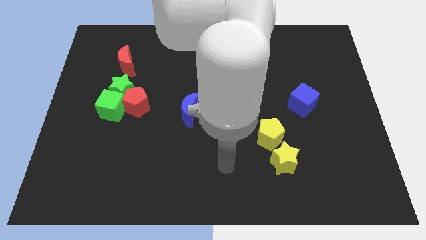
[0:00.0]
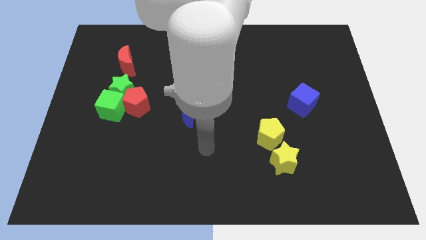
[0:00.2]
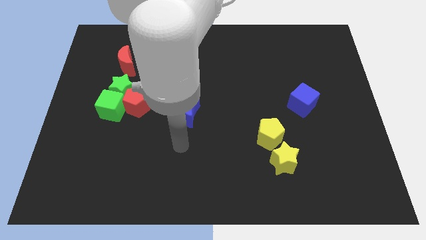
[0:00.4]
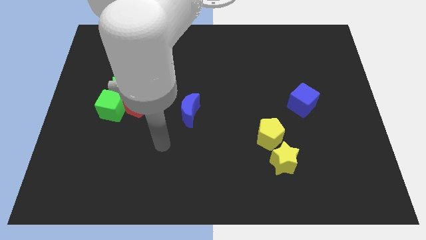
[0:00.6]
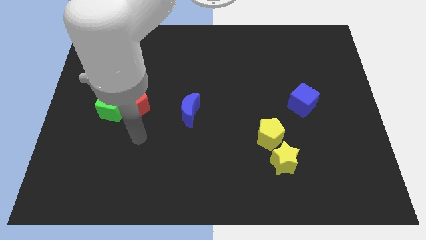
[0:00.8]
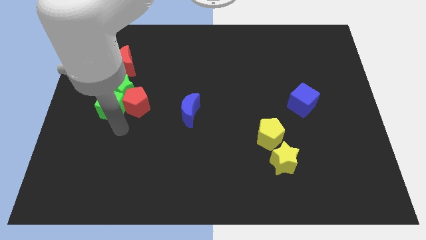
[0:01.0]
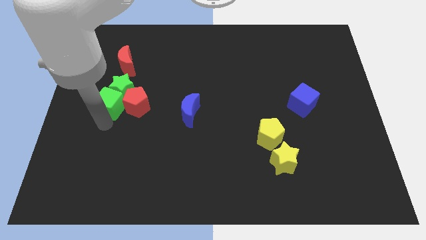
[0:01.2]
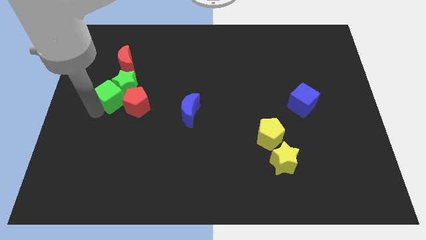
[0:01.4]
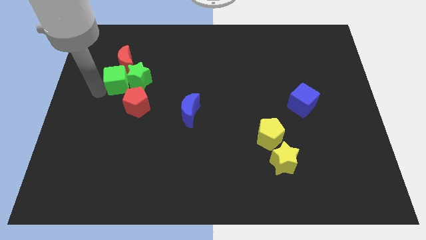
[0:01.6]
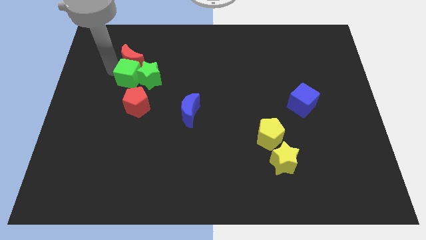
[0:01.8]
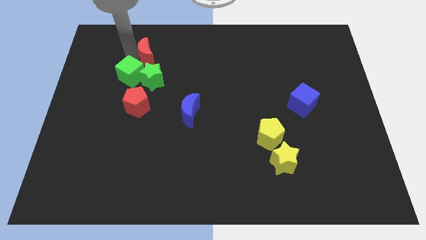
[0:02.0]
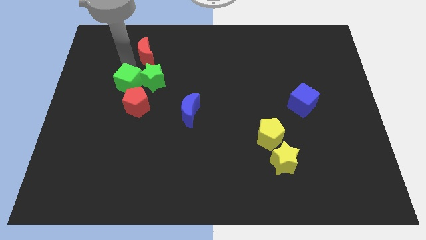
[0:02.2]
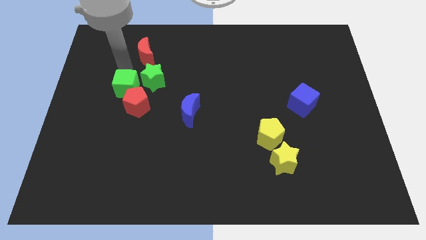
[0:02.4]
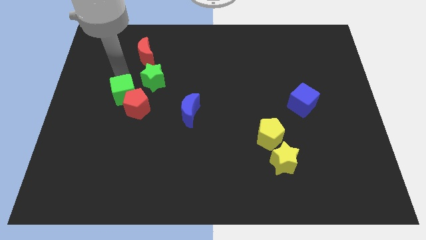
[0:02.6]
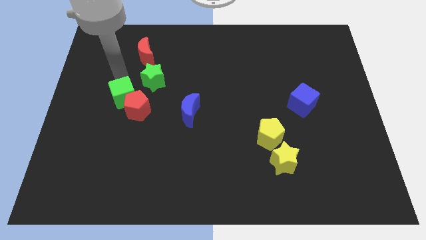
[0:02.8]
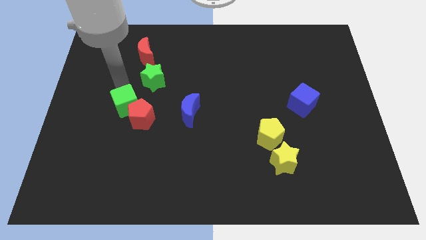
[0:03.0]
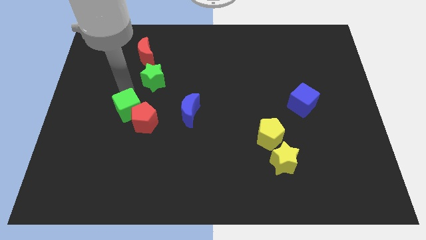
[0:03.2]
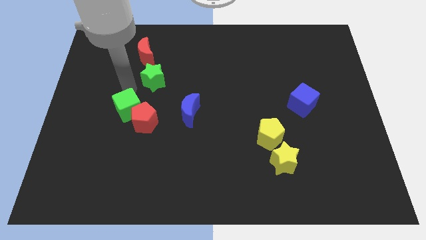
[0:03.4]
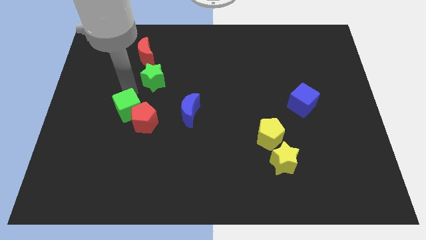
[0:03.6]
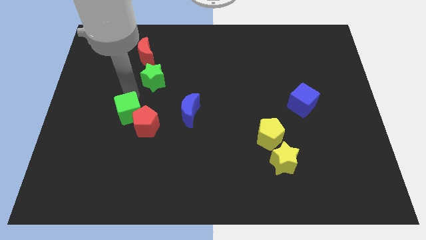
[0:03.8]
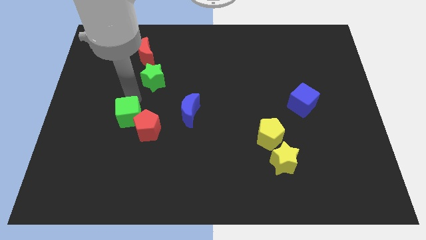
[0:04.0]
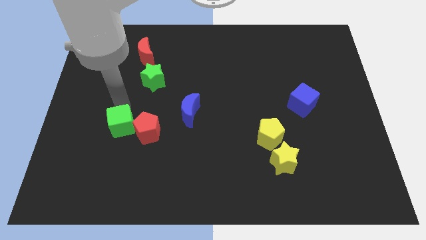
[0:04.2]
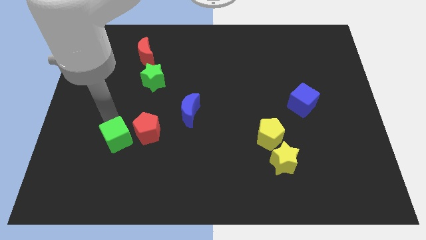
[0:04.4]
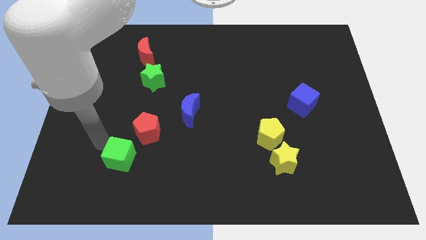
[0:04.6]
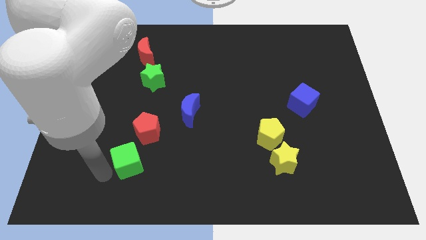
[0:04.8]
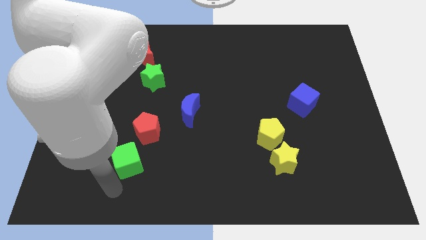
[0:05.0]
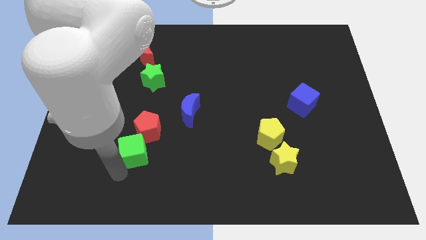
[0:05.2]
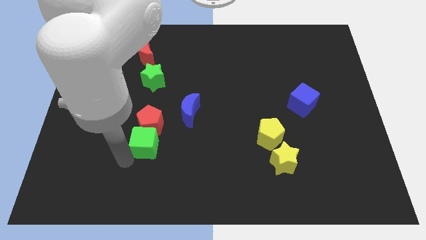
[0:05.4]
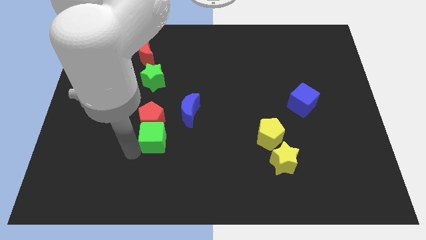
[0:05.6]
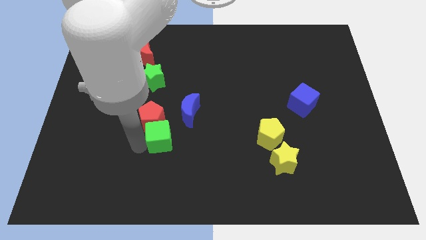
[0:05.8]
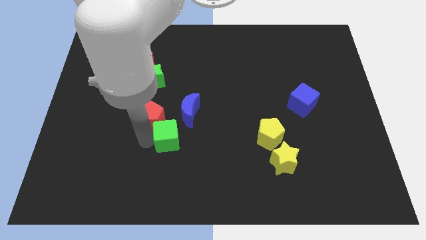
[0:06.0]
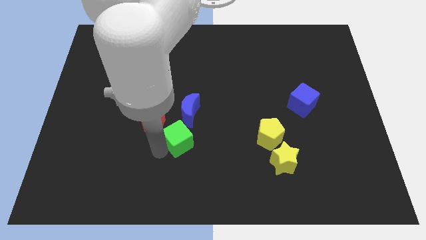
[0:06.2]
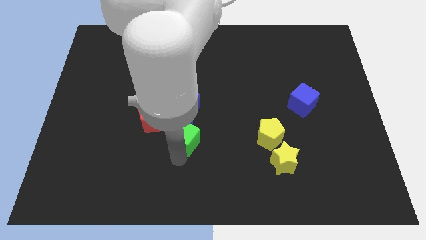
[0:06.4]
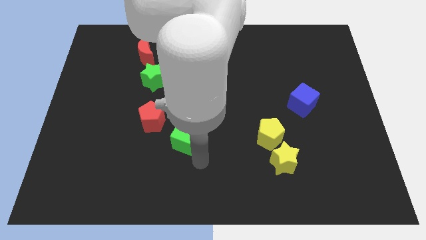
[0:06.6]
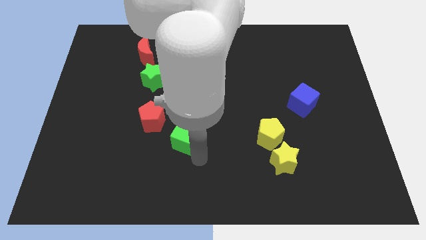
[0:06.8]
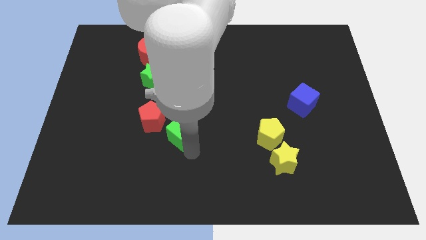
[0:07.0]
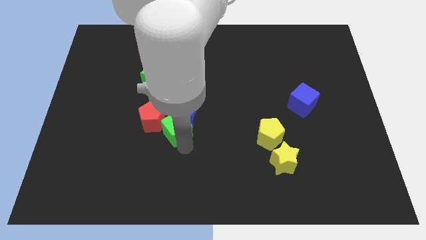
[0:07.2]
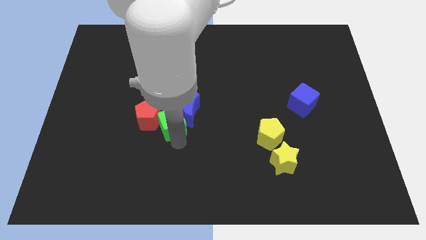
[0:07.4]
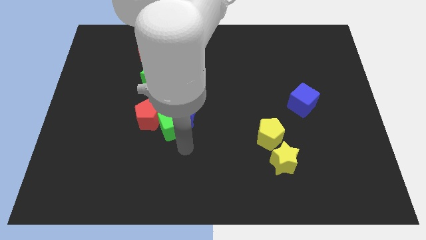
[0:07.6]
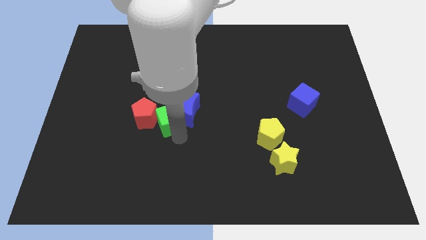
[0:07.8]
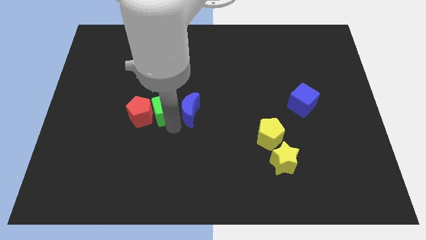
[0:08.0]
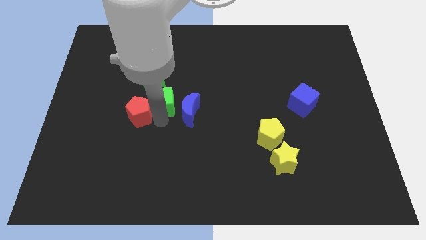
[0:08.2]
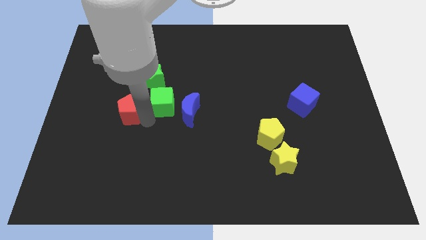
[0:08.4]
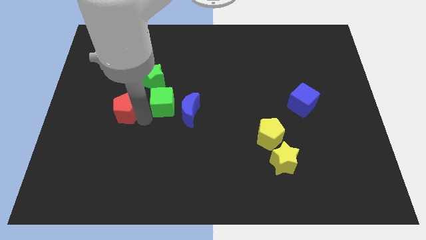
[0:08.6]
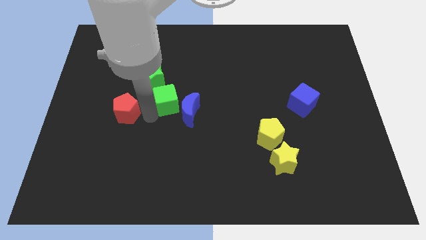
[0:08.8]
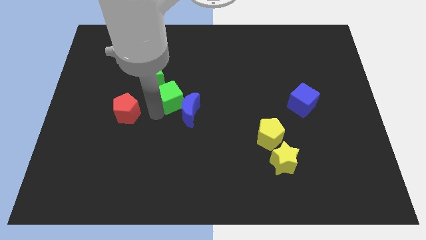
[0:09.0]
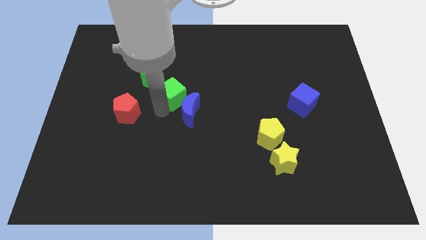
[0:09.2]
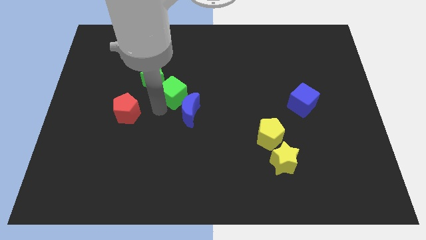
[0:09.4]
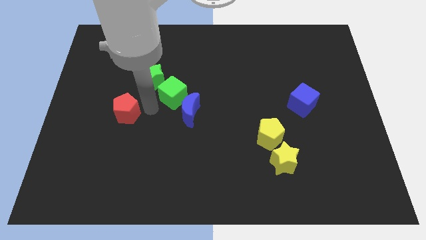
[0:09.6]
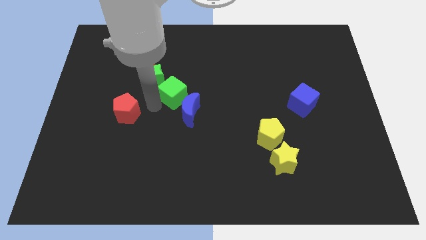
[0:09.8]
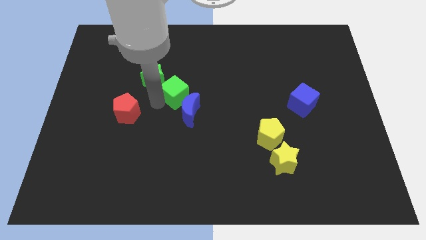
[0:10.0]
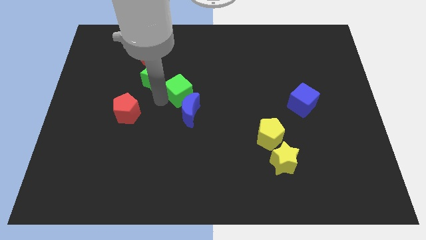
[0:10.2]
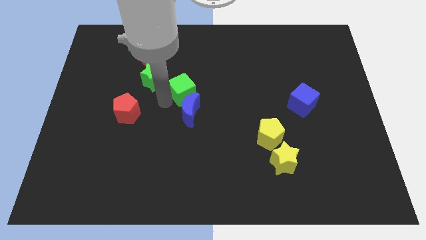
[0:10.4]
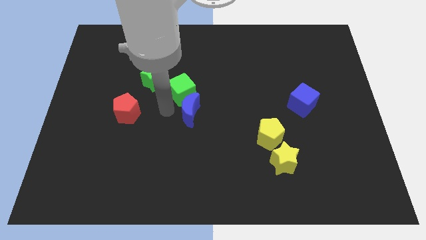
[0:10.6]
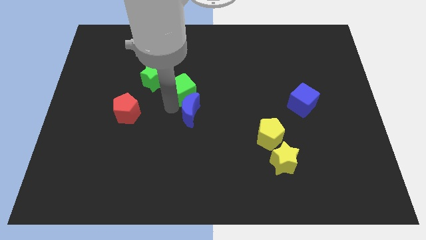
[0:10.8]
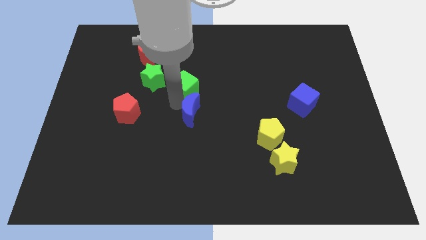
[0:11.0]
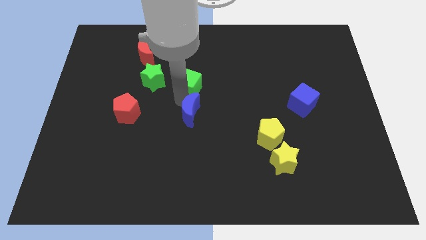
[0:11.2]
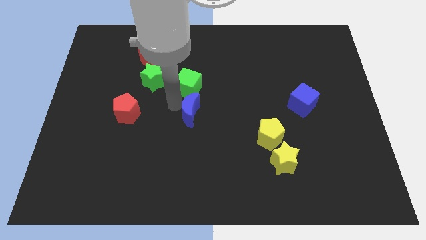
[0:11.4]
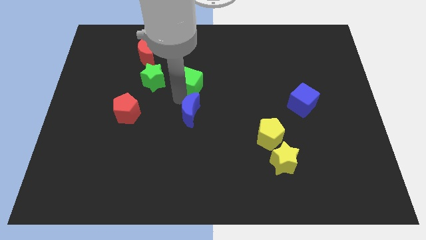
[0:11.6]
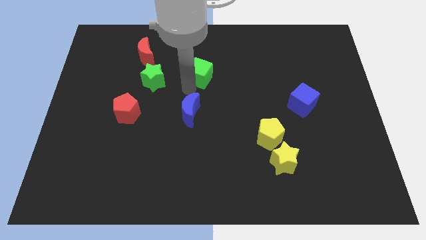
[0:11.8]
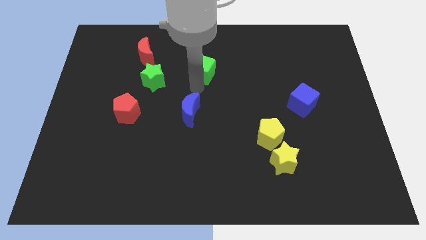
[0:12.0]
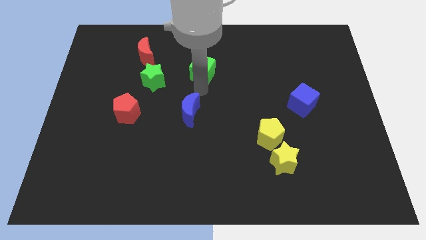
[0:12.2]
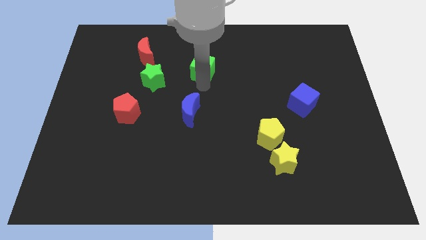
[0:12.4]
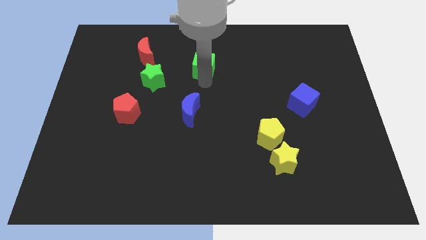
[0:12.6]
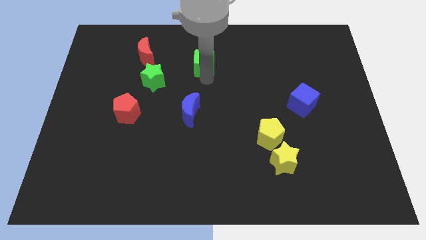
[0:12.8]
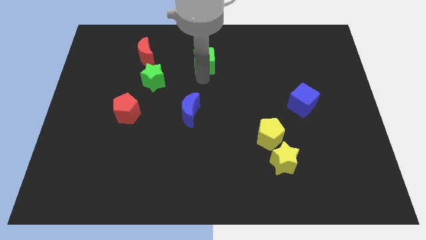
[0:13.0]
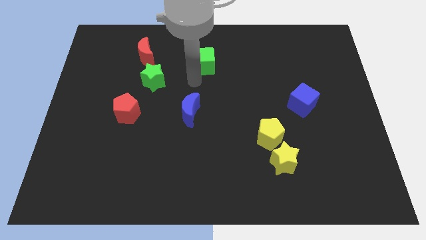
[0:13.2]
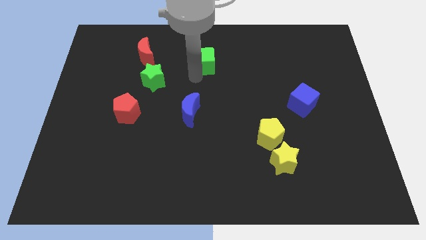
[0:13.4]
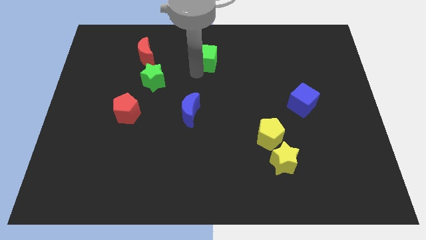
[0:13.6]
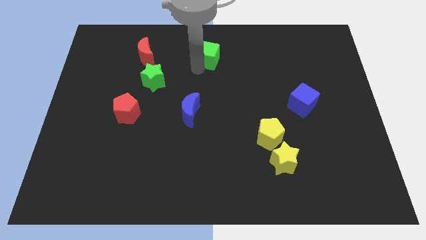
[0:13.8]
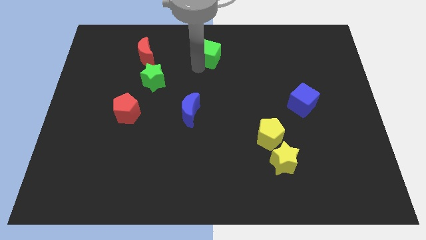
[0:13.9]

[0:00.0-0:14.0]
put the green cube to the top side
